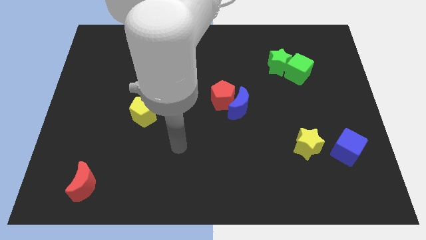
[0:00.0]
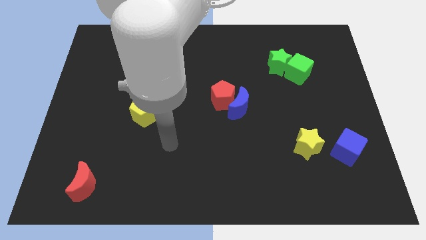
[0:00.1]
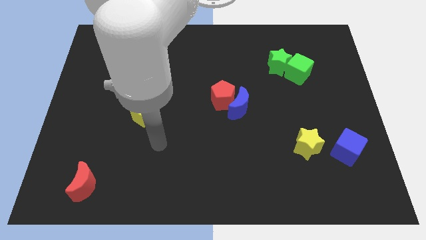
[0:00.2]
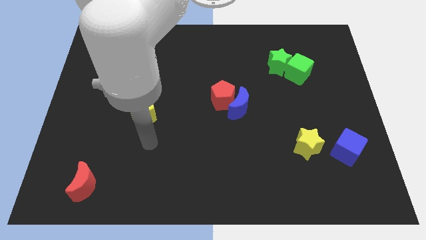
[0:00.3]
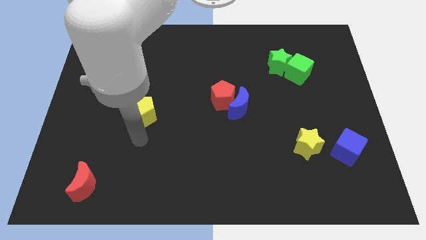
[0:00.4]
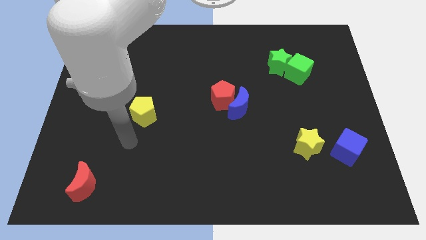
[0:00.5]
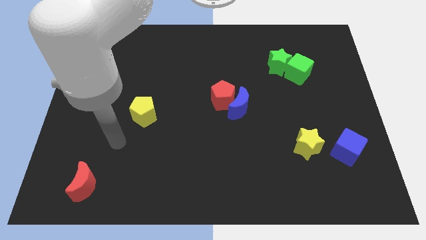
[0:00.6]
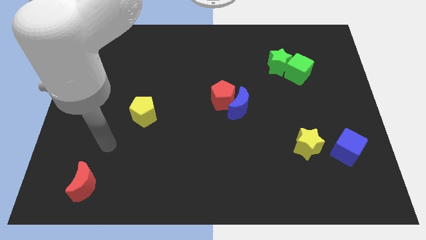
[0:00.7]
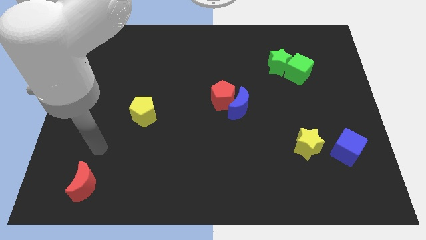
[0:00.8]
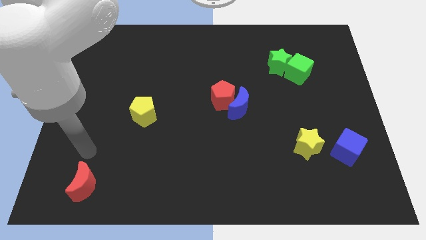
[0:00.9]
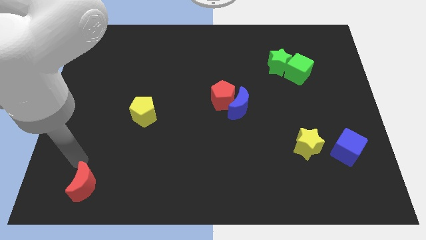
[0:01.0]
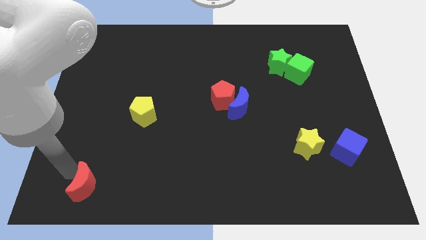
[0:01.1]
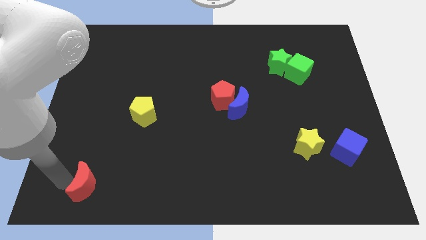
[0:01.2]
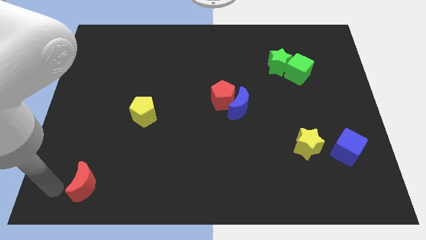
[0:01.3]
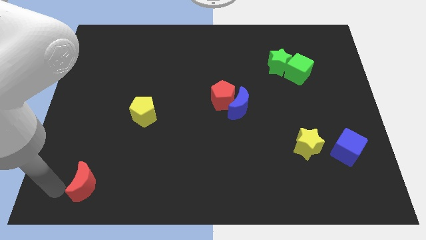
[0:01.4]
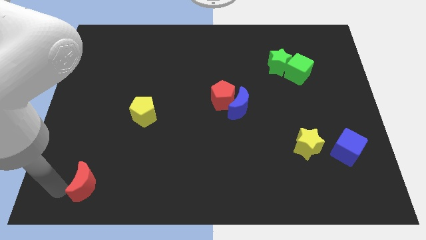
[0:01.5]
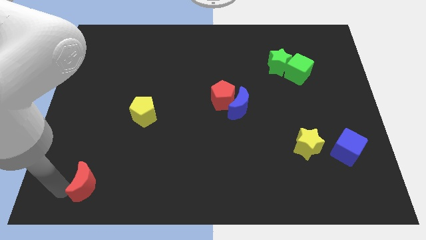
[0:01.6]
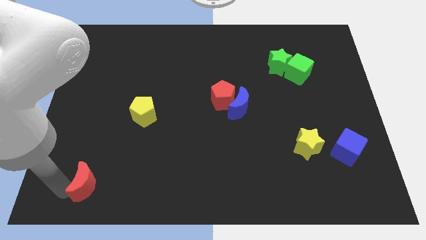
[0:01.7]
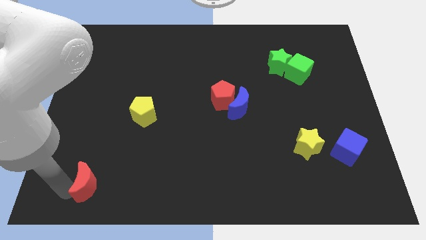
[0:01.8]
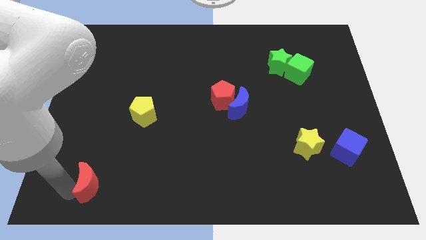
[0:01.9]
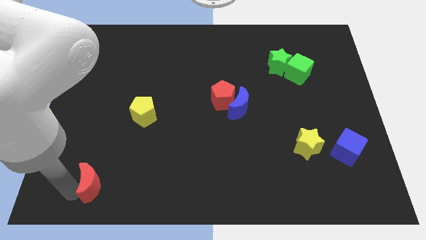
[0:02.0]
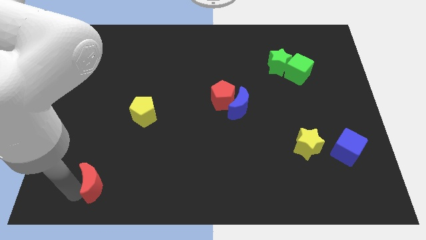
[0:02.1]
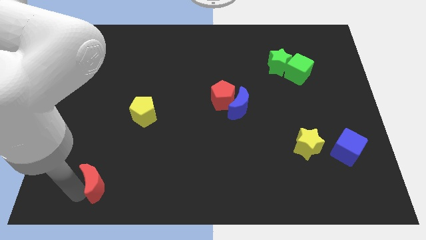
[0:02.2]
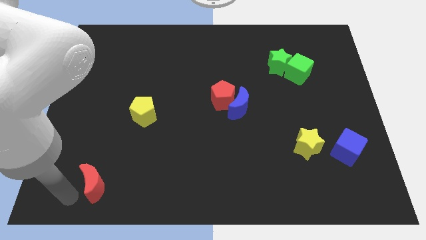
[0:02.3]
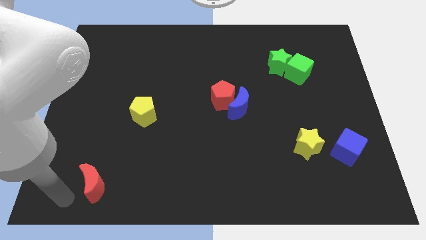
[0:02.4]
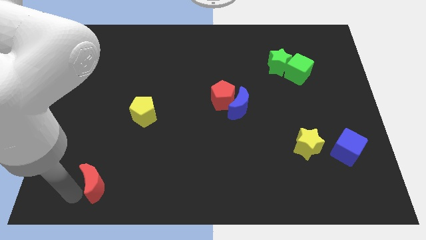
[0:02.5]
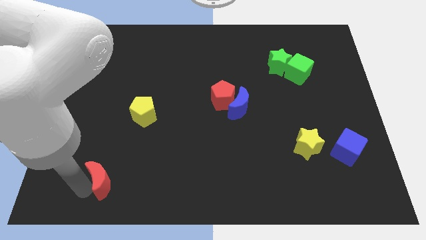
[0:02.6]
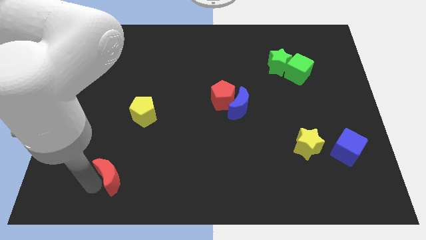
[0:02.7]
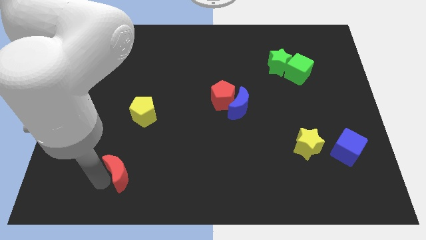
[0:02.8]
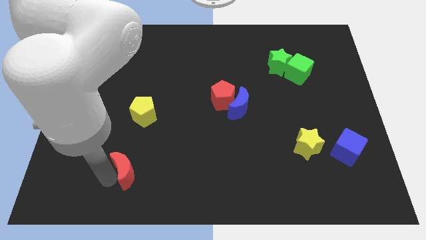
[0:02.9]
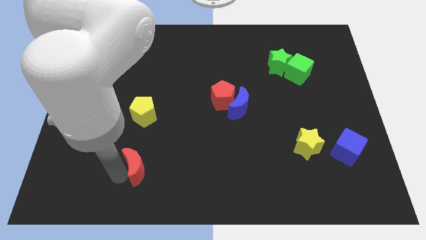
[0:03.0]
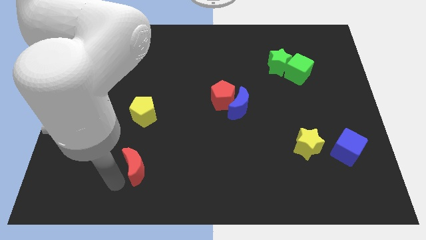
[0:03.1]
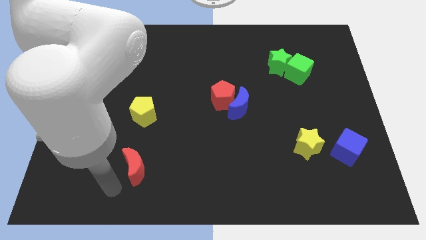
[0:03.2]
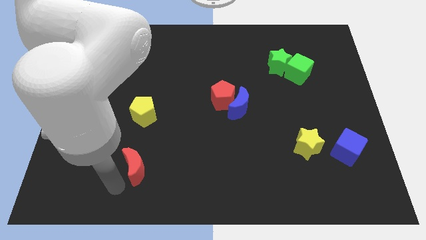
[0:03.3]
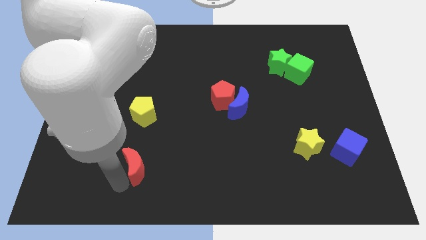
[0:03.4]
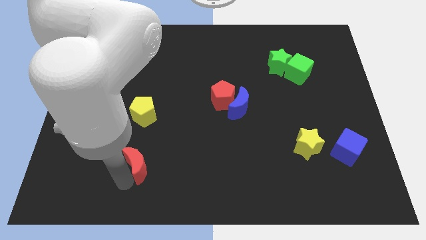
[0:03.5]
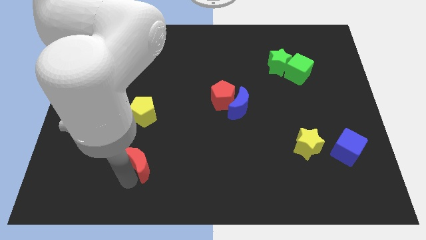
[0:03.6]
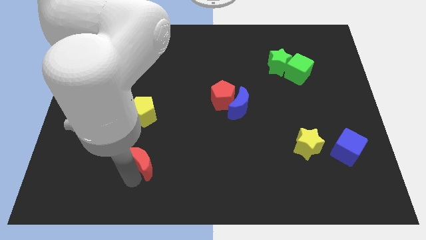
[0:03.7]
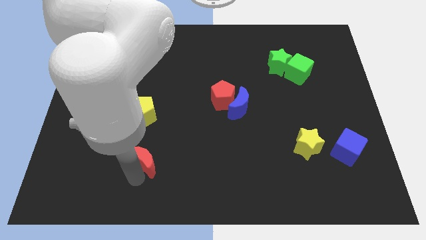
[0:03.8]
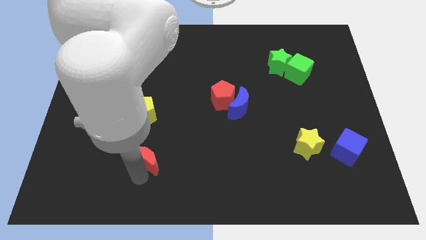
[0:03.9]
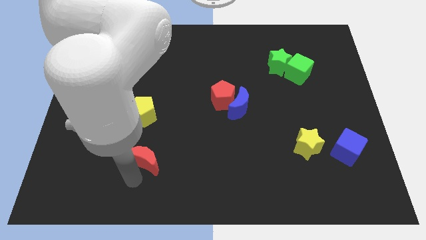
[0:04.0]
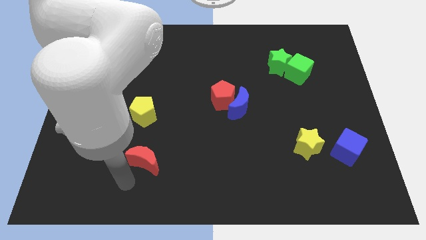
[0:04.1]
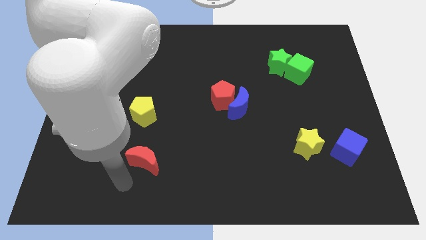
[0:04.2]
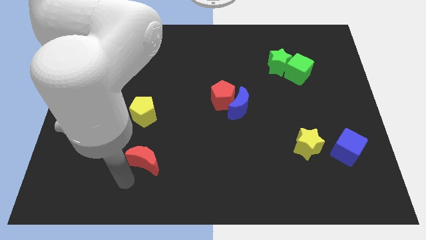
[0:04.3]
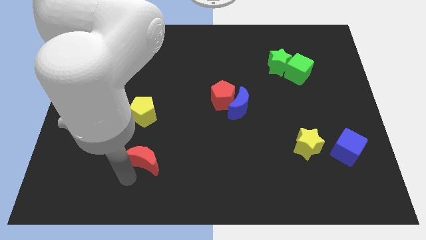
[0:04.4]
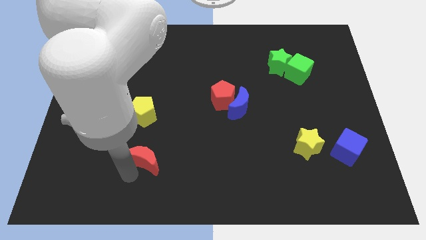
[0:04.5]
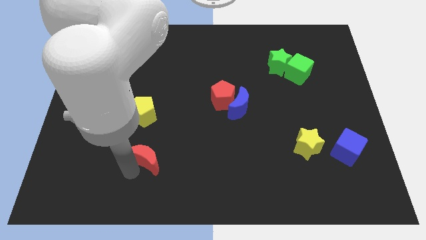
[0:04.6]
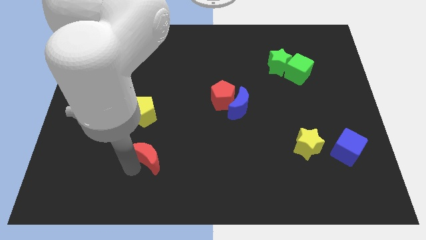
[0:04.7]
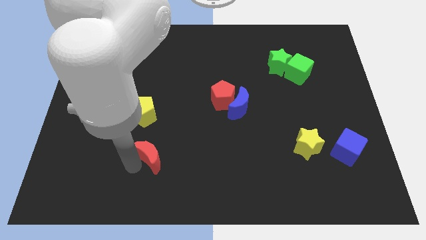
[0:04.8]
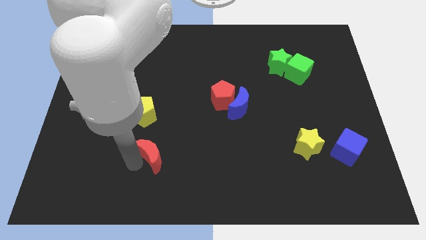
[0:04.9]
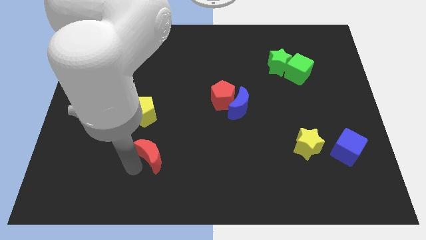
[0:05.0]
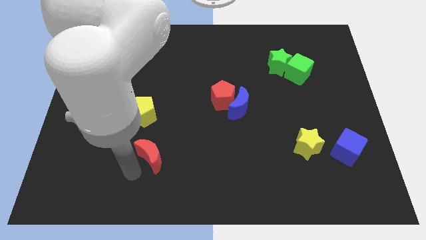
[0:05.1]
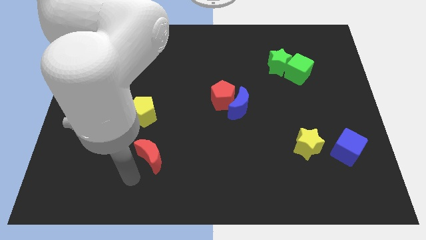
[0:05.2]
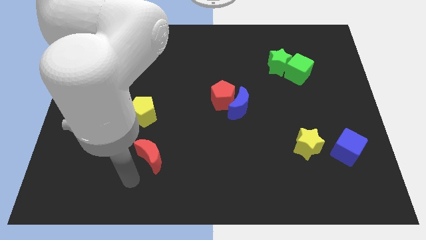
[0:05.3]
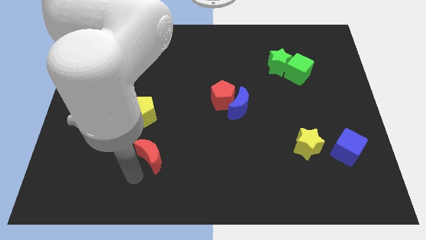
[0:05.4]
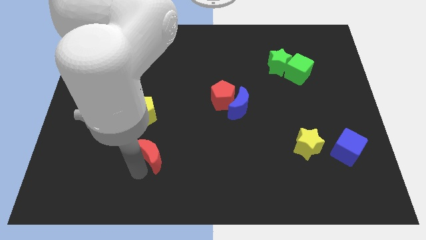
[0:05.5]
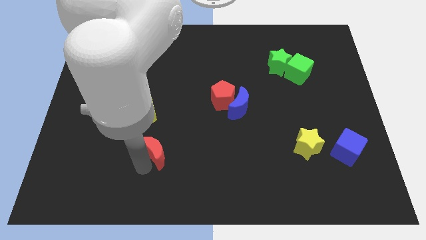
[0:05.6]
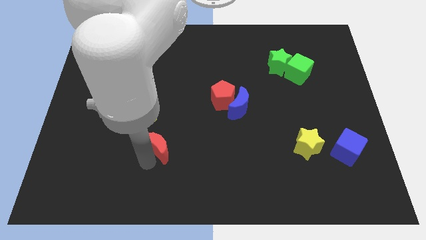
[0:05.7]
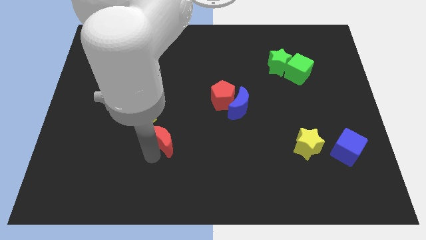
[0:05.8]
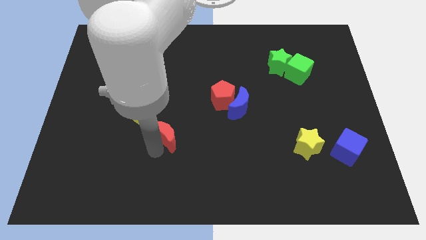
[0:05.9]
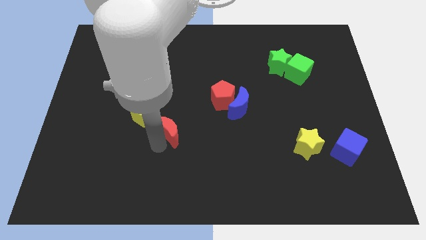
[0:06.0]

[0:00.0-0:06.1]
move the red moon diagonally up and to the right

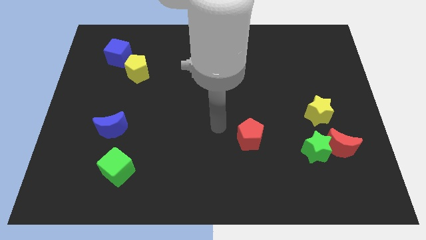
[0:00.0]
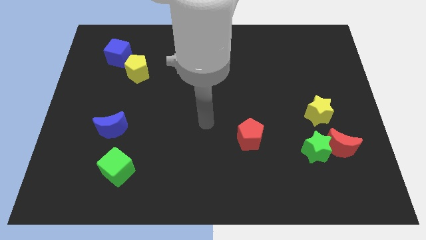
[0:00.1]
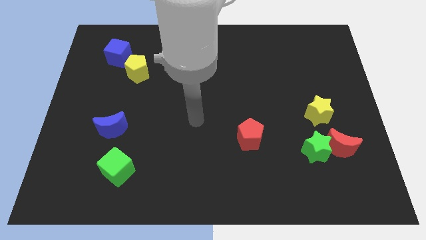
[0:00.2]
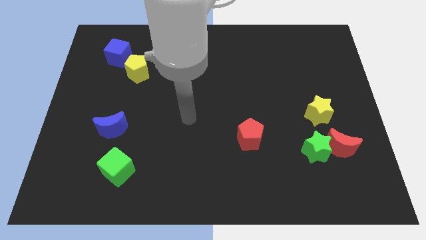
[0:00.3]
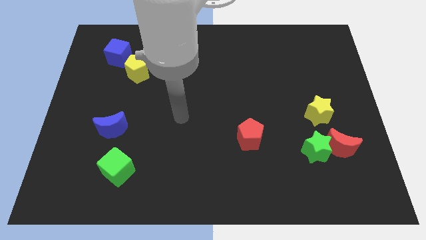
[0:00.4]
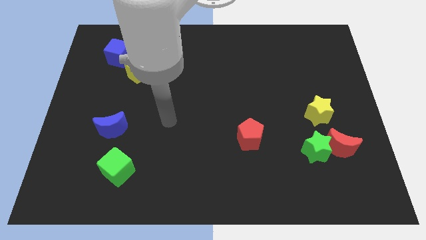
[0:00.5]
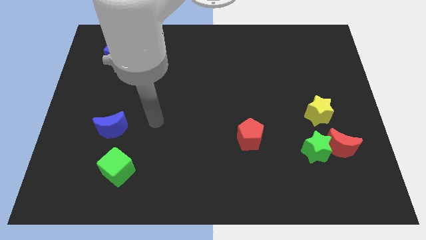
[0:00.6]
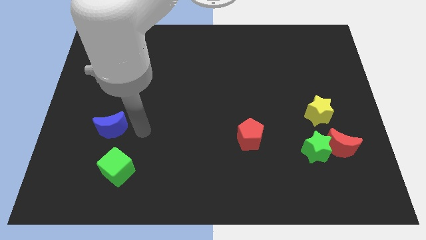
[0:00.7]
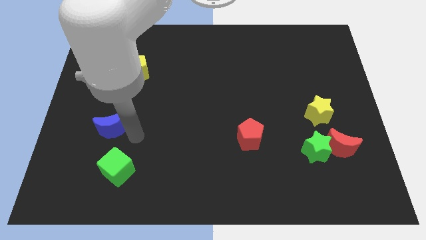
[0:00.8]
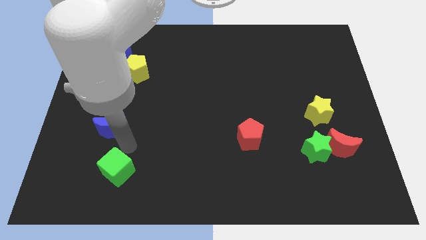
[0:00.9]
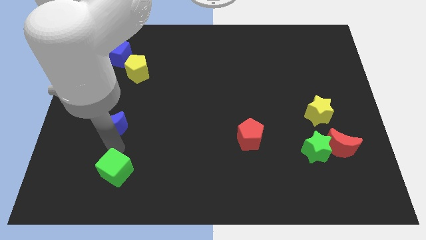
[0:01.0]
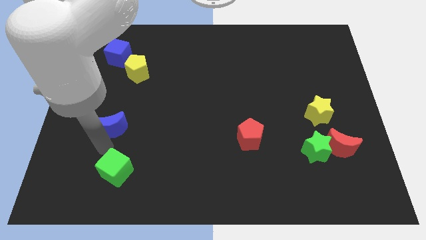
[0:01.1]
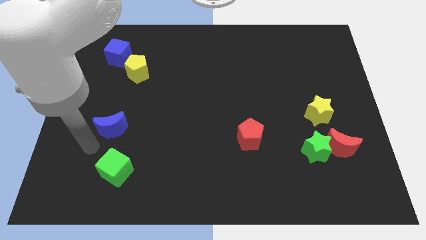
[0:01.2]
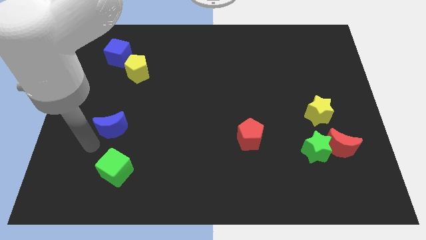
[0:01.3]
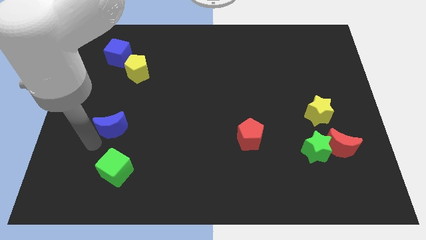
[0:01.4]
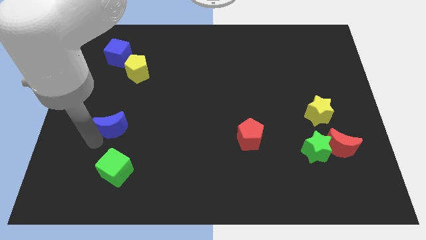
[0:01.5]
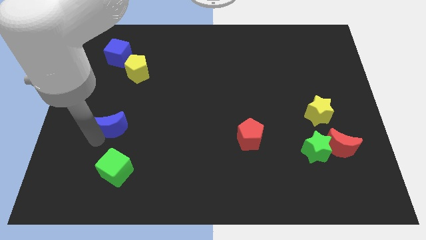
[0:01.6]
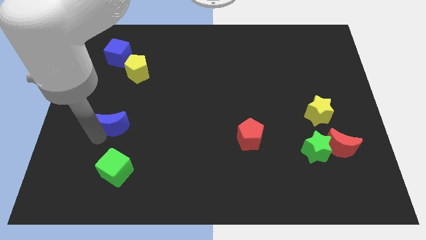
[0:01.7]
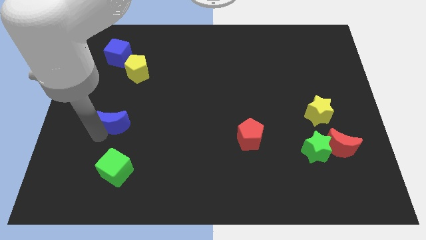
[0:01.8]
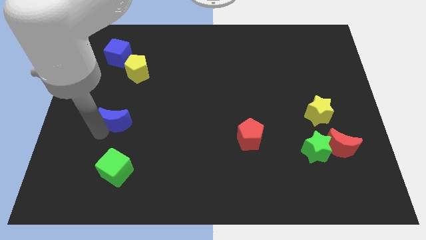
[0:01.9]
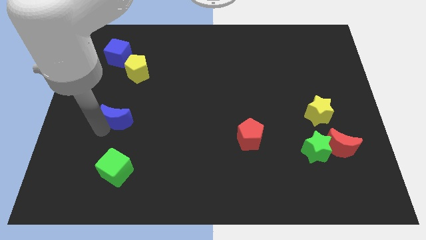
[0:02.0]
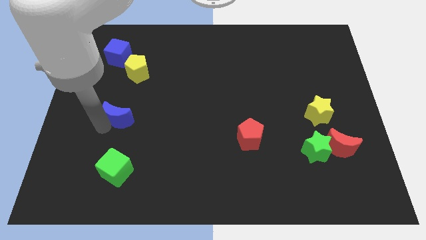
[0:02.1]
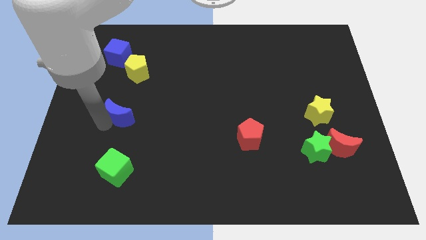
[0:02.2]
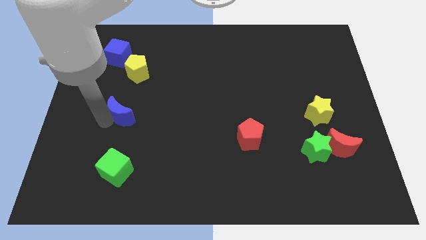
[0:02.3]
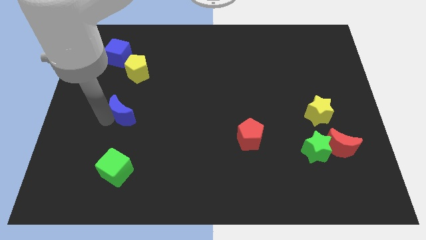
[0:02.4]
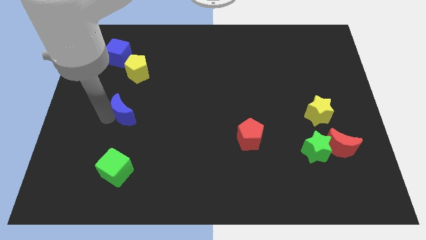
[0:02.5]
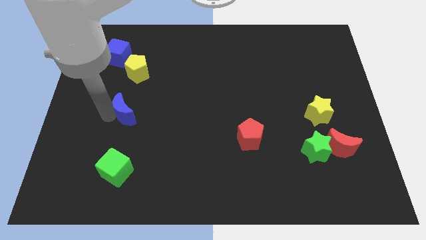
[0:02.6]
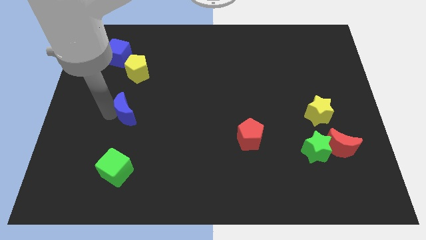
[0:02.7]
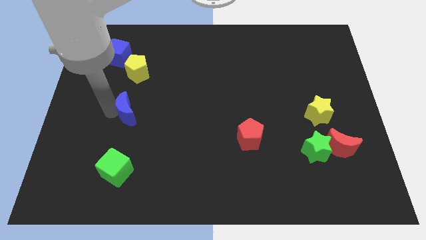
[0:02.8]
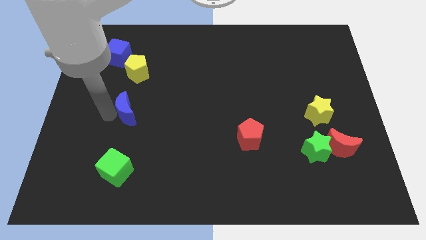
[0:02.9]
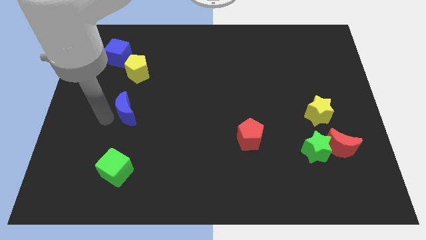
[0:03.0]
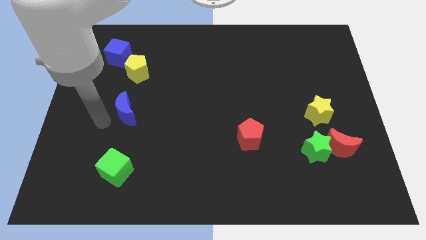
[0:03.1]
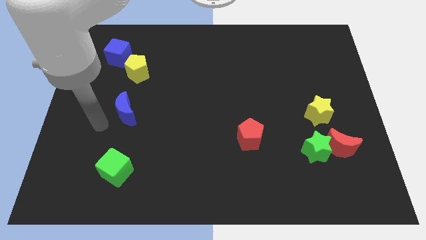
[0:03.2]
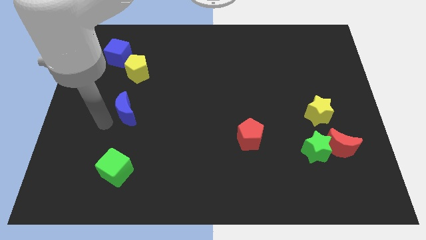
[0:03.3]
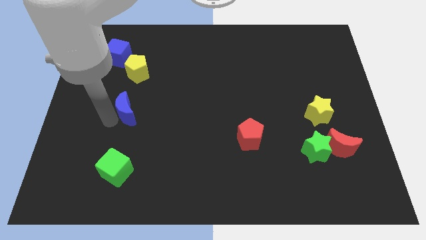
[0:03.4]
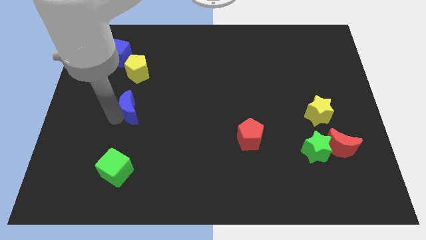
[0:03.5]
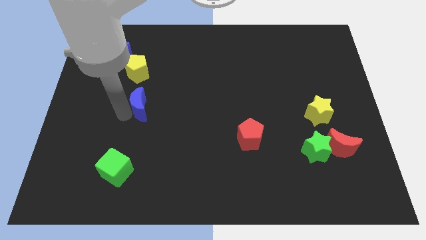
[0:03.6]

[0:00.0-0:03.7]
slightly move the blue moon diagonally up and right
